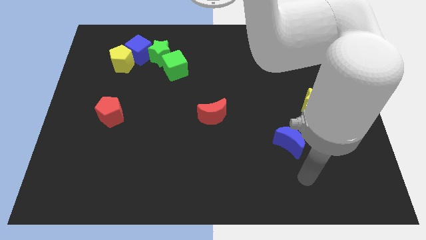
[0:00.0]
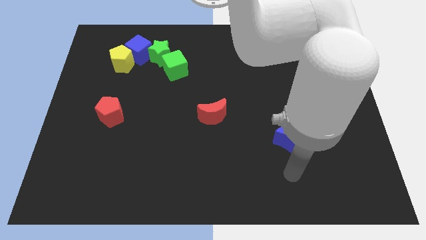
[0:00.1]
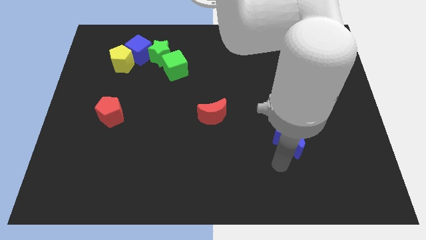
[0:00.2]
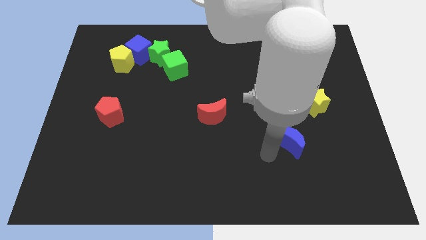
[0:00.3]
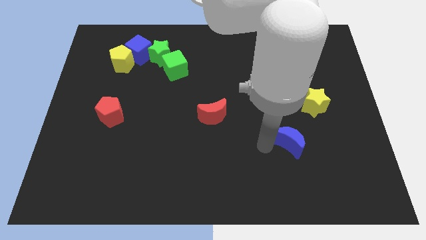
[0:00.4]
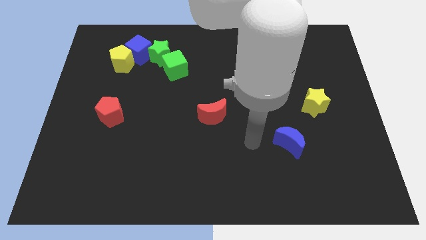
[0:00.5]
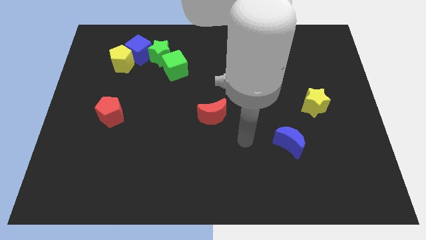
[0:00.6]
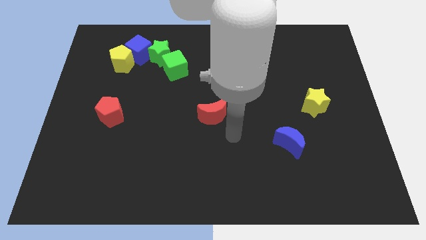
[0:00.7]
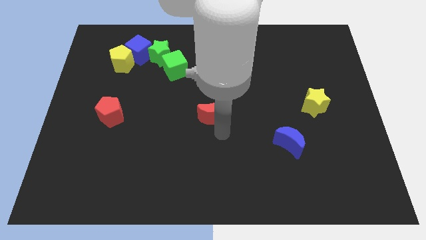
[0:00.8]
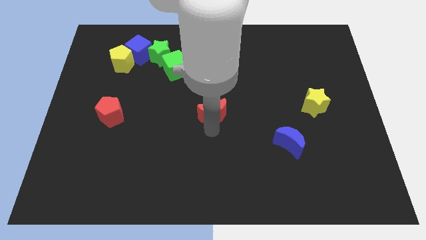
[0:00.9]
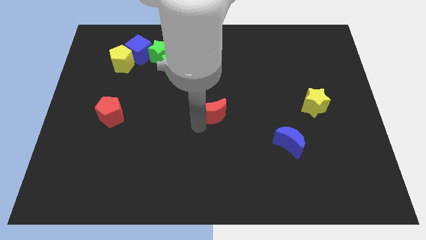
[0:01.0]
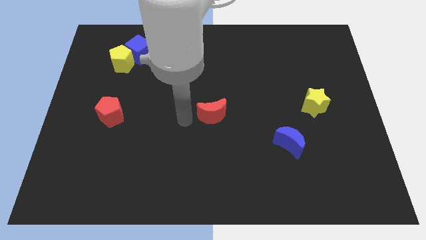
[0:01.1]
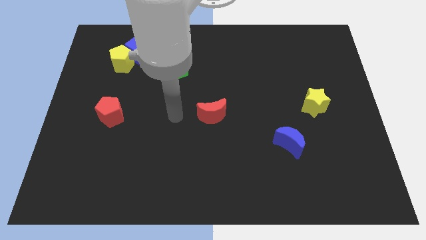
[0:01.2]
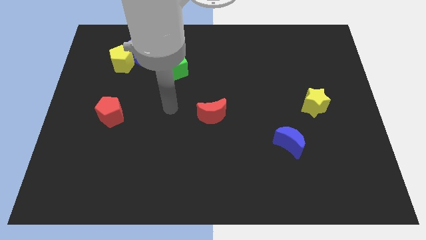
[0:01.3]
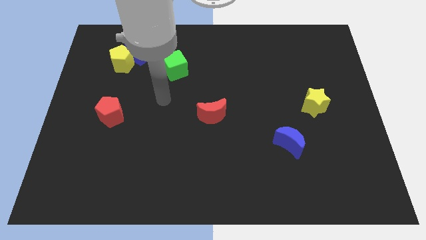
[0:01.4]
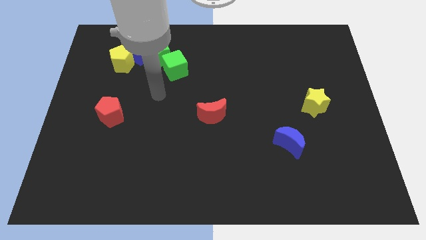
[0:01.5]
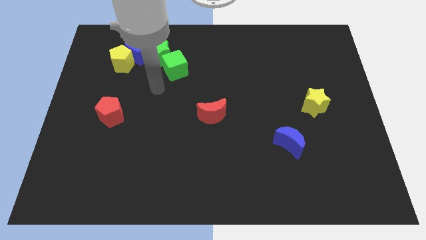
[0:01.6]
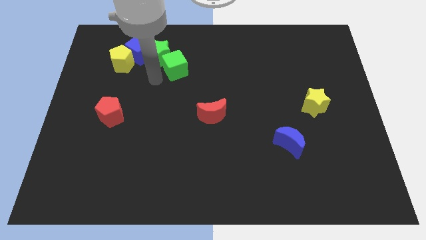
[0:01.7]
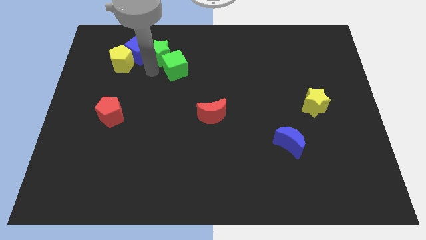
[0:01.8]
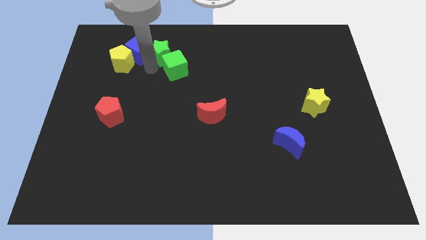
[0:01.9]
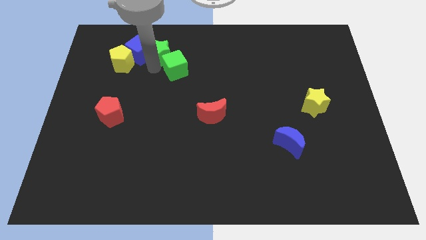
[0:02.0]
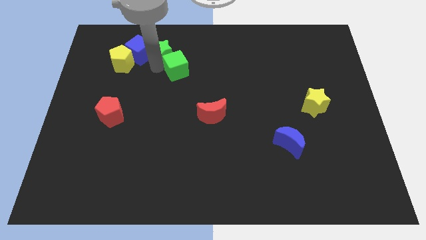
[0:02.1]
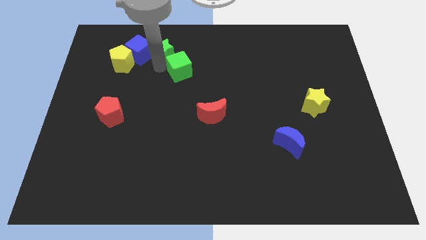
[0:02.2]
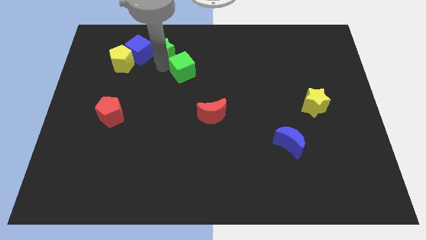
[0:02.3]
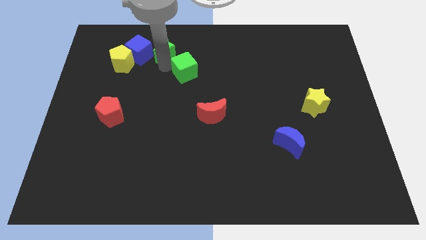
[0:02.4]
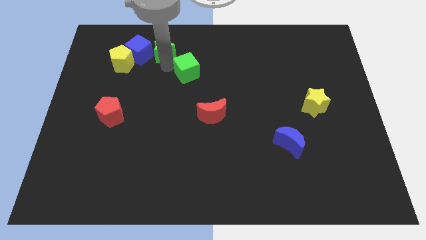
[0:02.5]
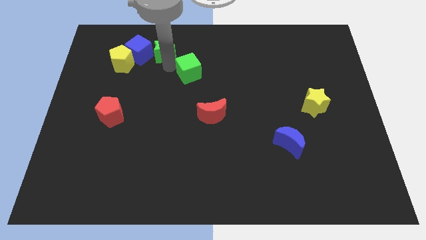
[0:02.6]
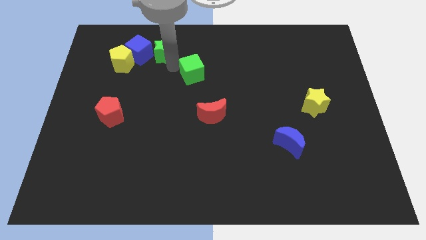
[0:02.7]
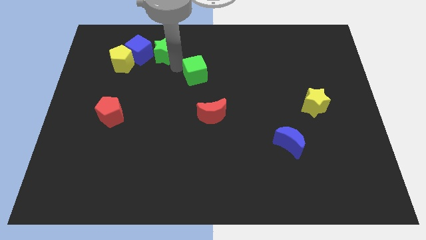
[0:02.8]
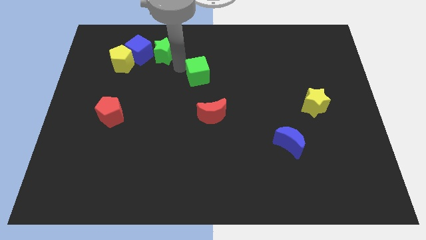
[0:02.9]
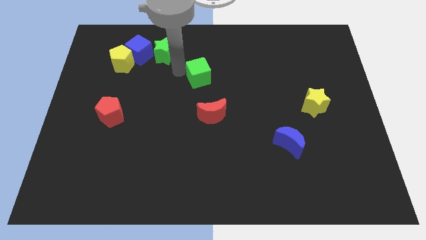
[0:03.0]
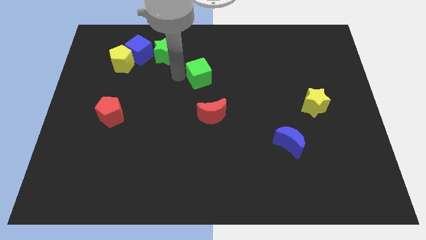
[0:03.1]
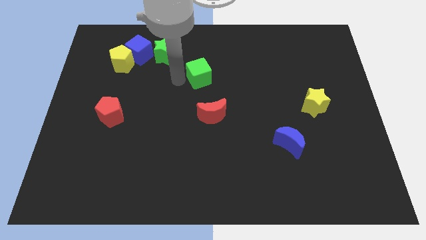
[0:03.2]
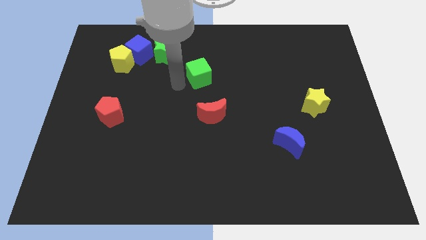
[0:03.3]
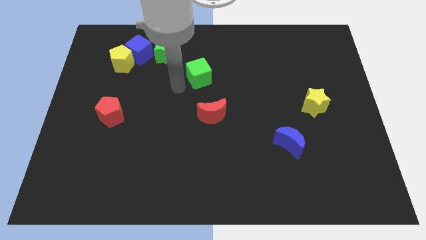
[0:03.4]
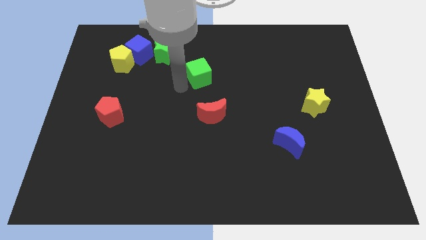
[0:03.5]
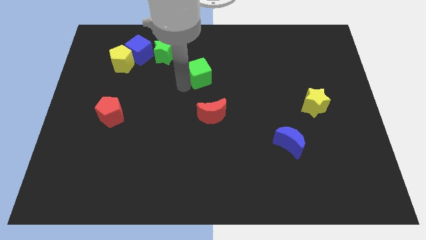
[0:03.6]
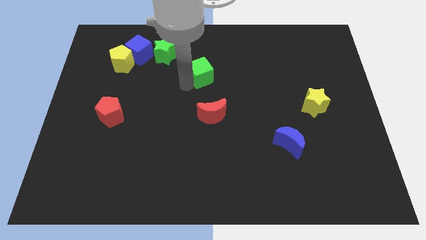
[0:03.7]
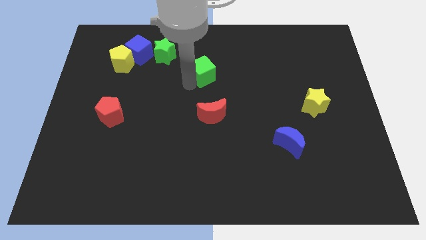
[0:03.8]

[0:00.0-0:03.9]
slightly slide the green cube right

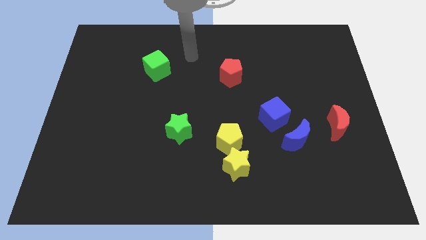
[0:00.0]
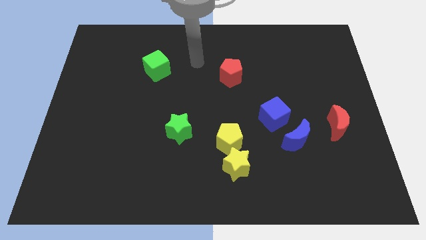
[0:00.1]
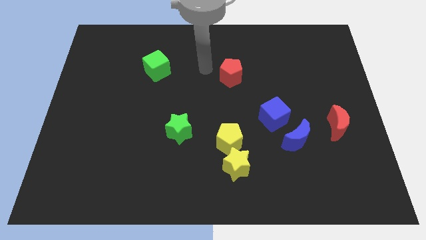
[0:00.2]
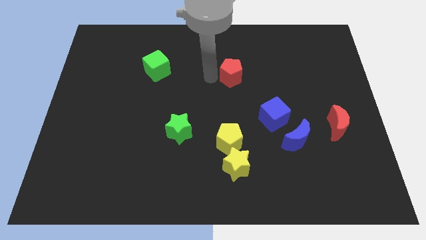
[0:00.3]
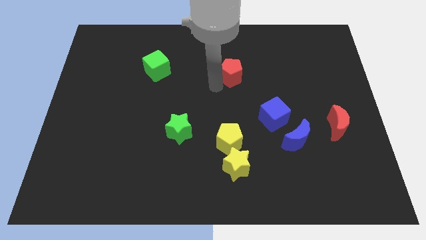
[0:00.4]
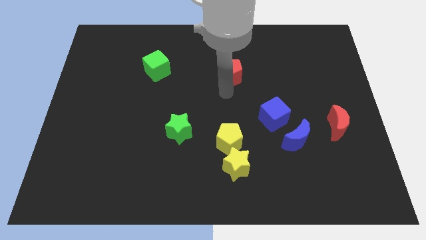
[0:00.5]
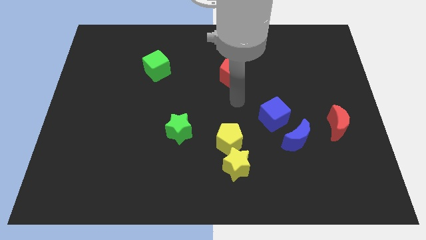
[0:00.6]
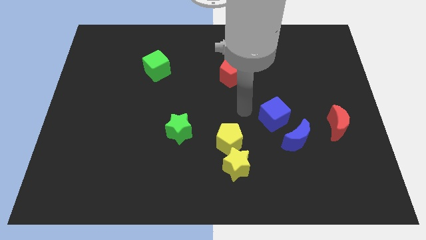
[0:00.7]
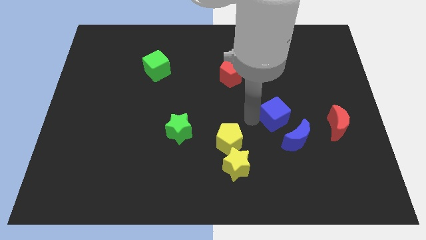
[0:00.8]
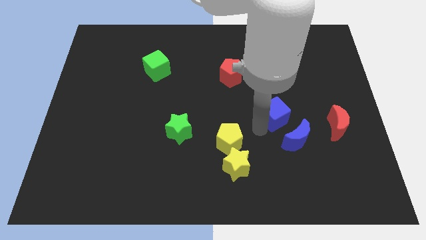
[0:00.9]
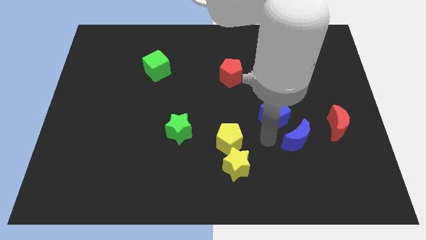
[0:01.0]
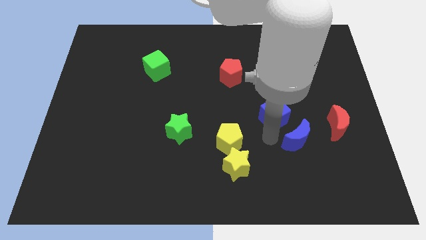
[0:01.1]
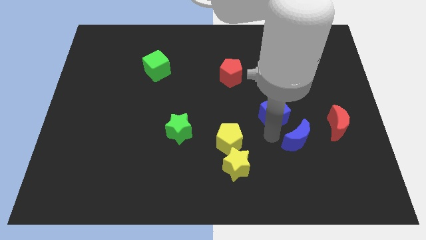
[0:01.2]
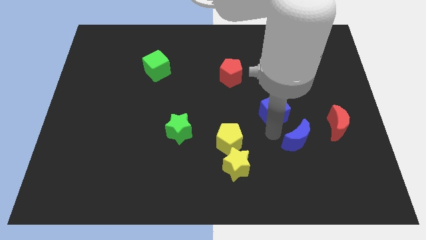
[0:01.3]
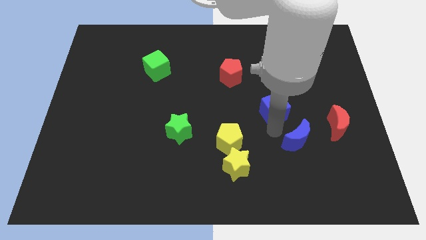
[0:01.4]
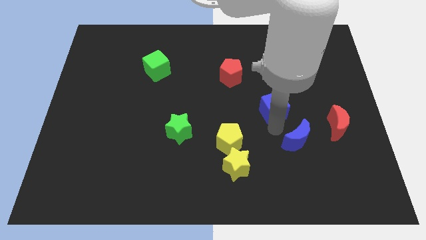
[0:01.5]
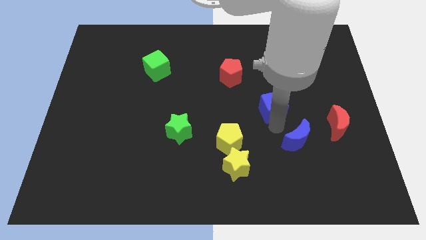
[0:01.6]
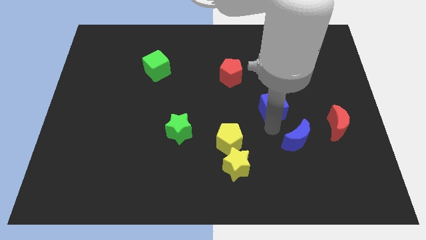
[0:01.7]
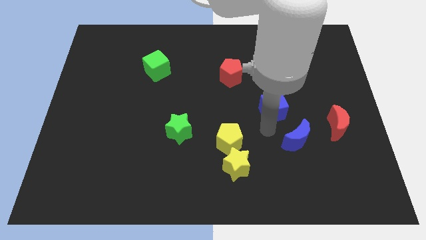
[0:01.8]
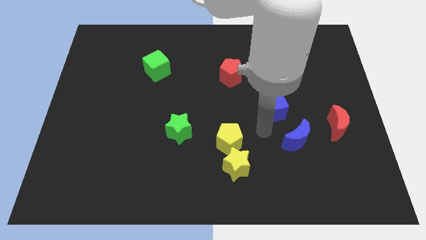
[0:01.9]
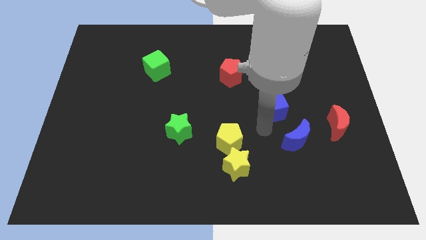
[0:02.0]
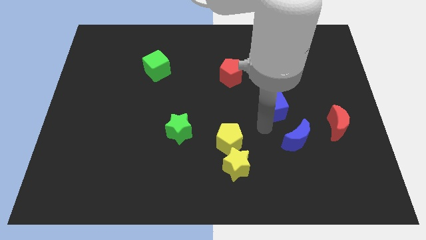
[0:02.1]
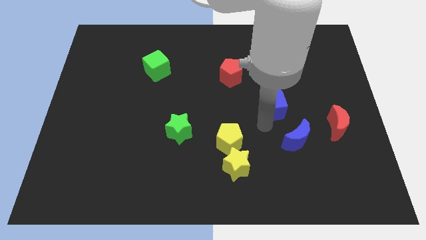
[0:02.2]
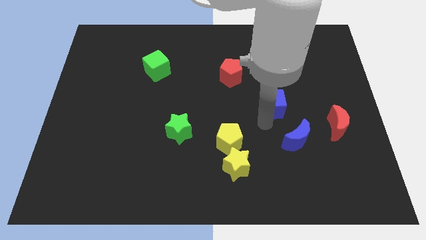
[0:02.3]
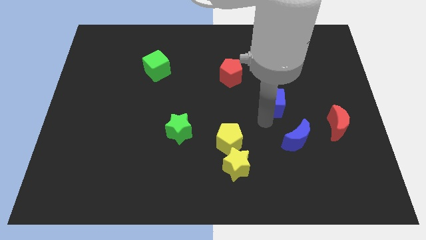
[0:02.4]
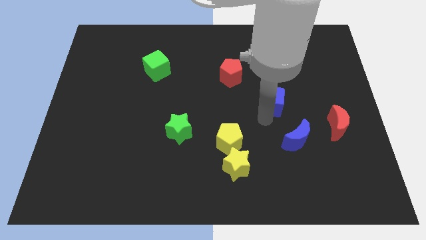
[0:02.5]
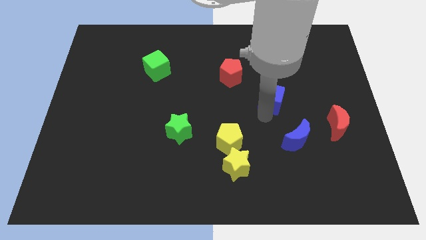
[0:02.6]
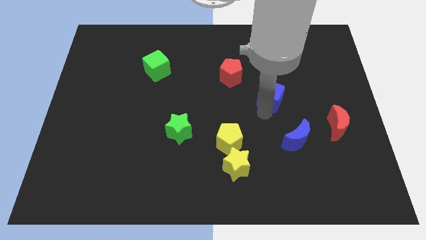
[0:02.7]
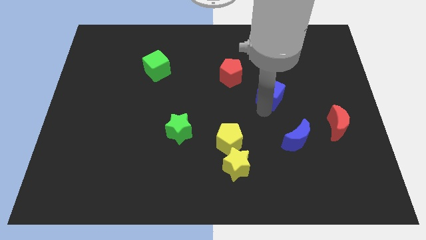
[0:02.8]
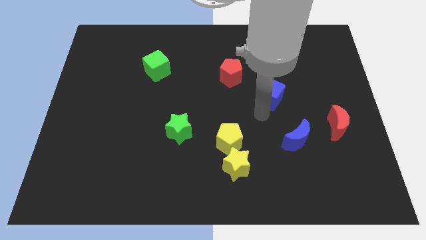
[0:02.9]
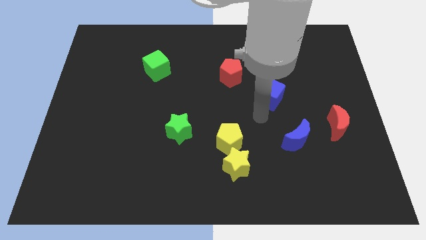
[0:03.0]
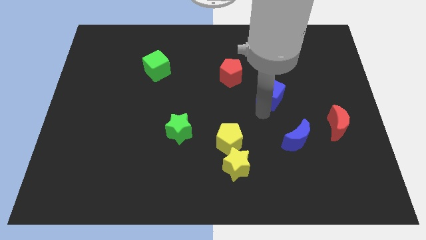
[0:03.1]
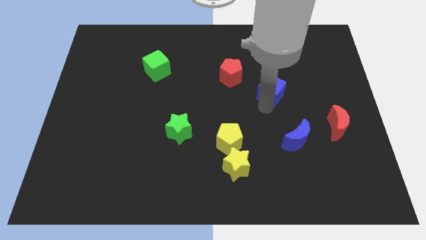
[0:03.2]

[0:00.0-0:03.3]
push the blue cube a little bit up

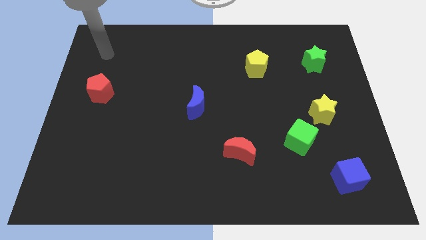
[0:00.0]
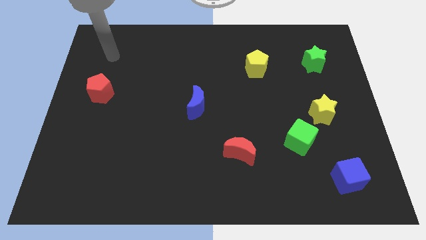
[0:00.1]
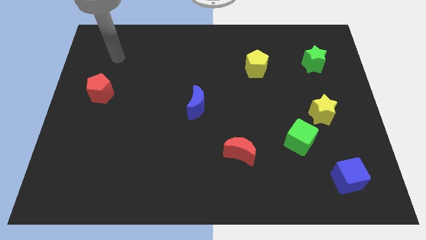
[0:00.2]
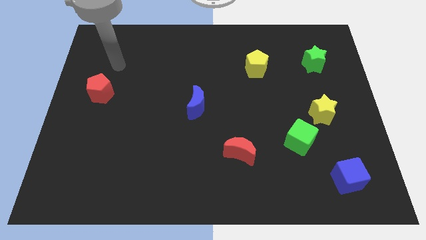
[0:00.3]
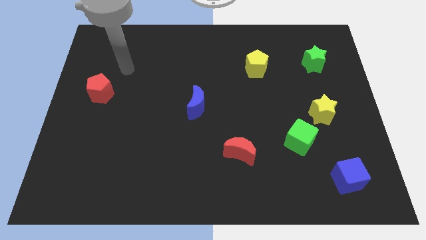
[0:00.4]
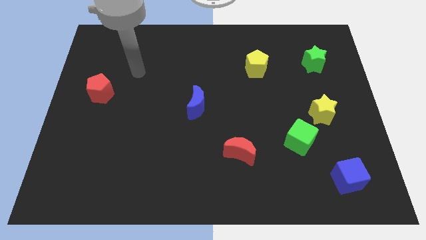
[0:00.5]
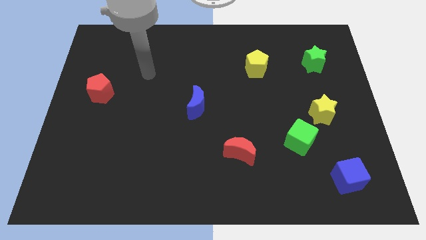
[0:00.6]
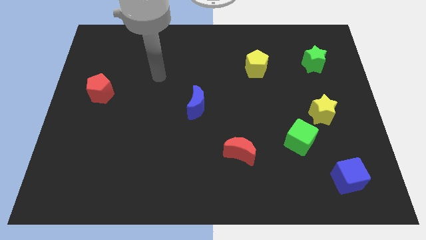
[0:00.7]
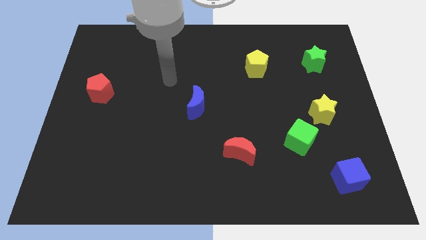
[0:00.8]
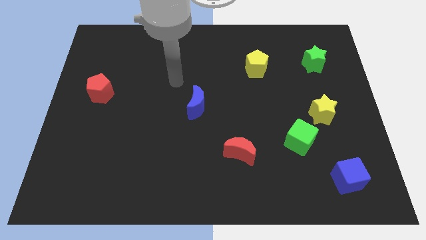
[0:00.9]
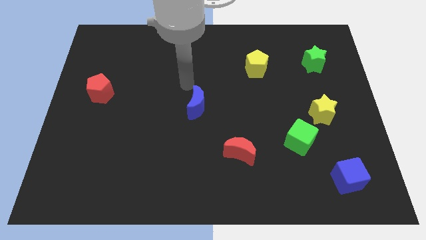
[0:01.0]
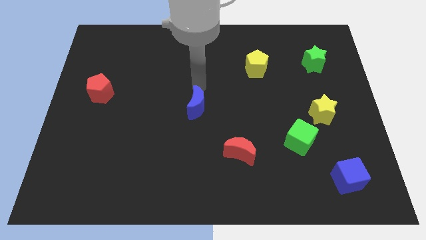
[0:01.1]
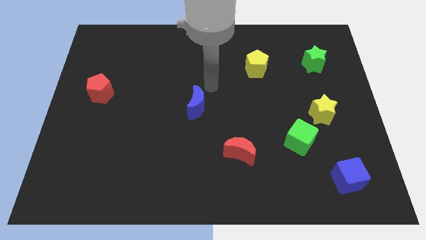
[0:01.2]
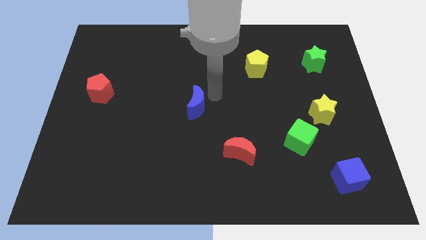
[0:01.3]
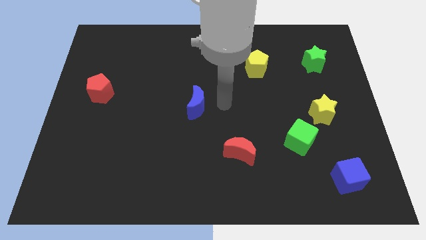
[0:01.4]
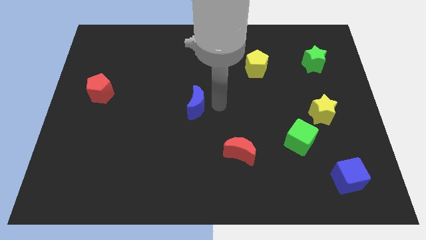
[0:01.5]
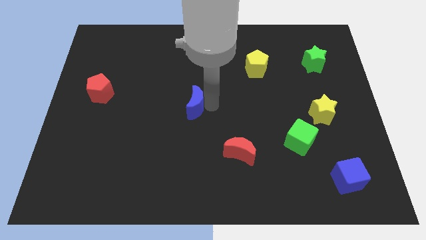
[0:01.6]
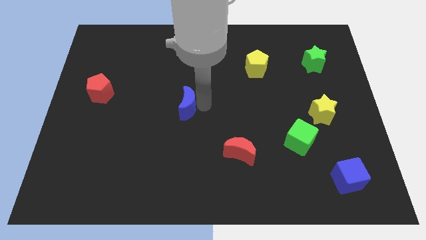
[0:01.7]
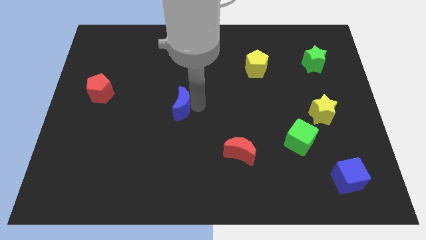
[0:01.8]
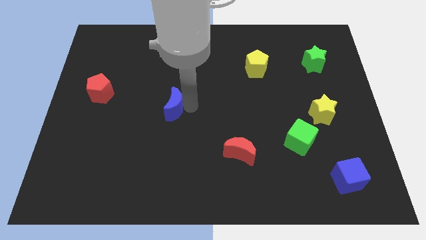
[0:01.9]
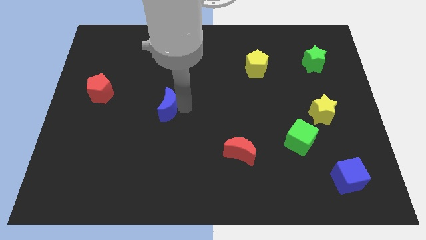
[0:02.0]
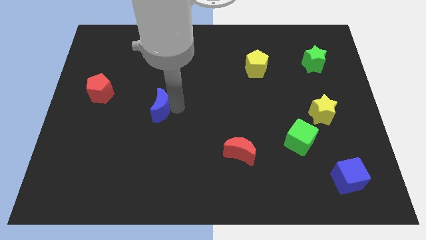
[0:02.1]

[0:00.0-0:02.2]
slightly move the blue moon to the left
